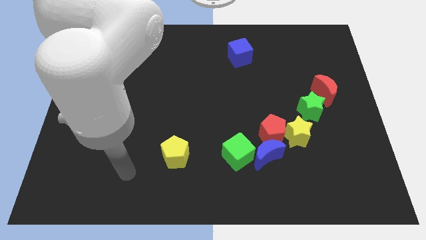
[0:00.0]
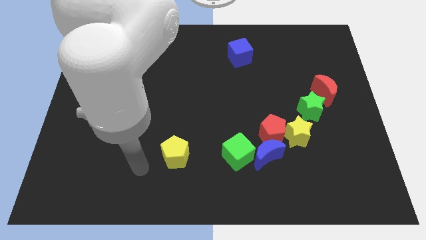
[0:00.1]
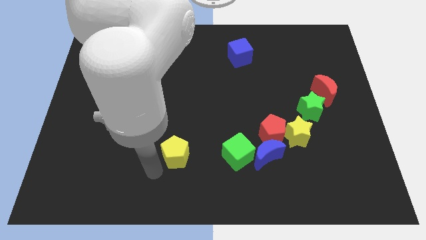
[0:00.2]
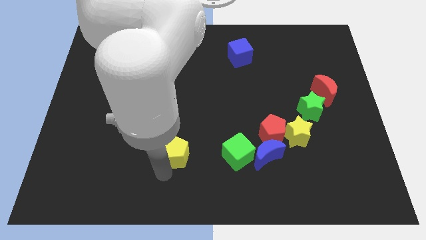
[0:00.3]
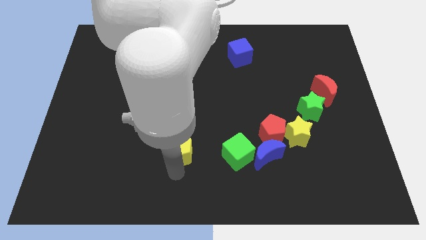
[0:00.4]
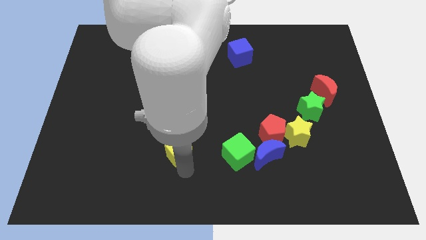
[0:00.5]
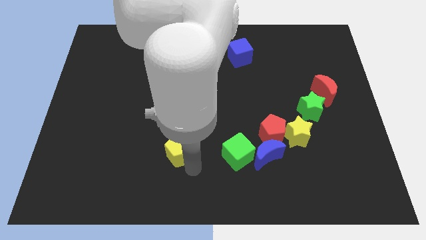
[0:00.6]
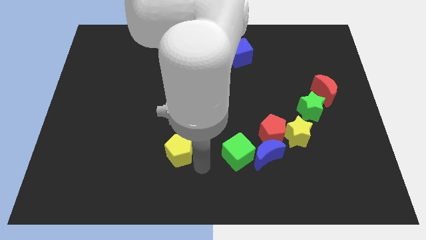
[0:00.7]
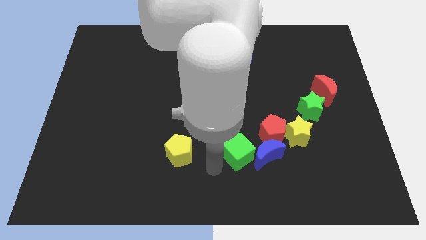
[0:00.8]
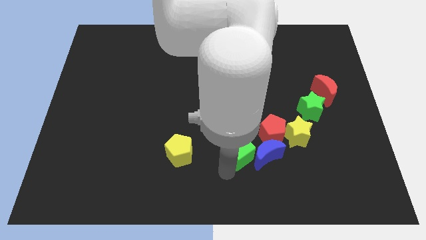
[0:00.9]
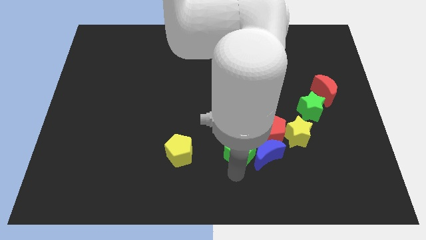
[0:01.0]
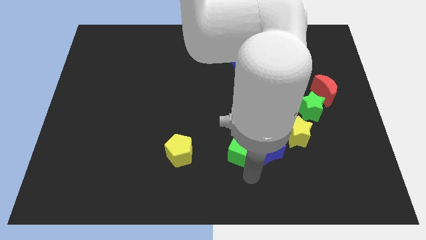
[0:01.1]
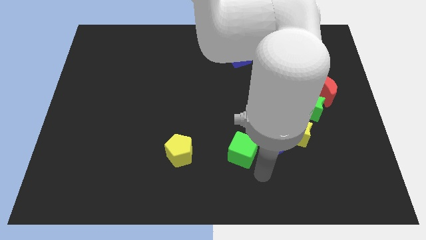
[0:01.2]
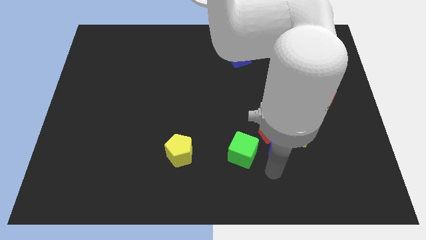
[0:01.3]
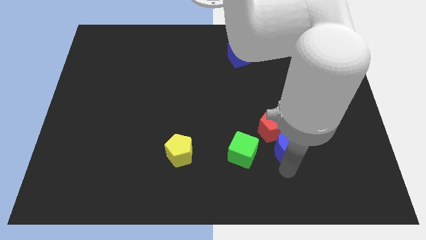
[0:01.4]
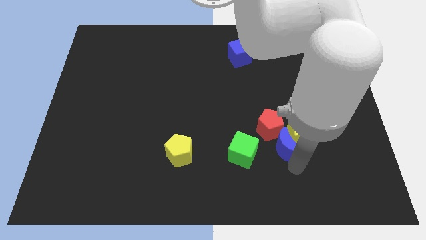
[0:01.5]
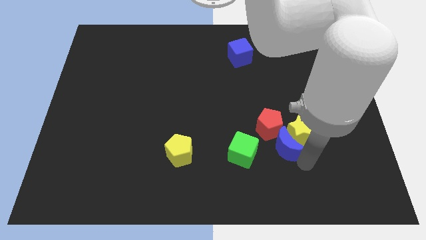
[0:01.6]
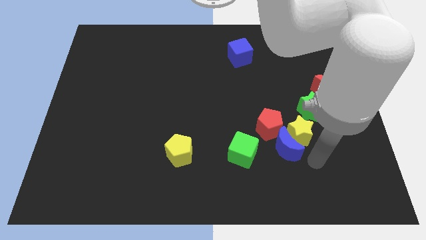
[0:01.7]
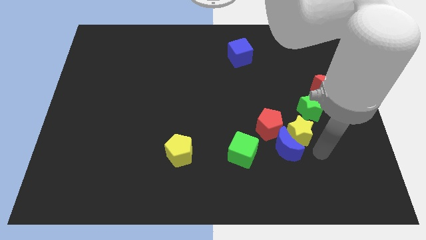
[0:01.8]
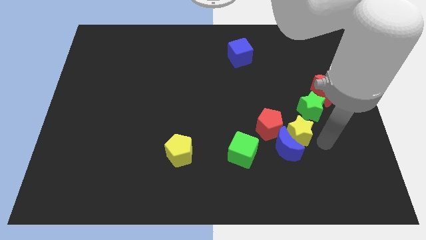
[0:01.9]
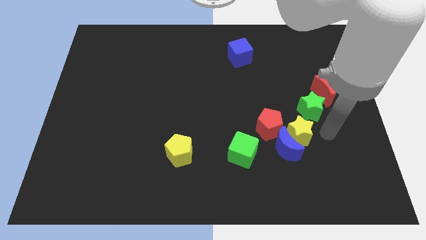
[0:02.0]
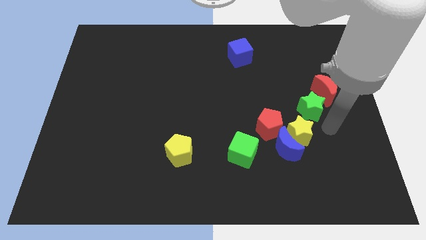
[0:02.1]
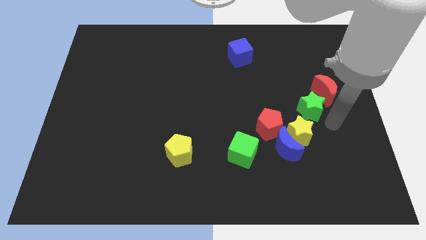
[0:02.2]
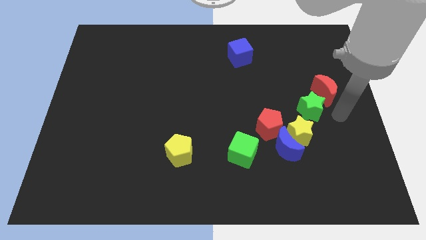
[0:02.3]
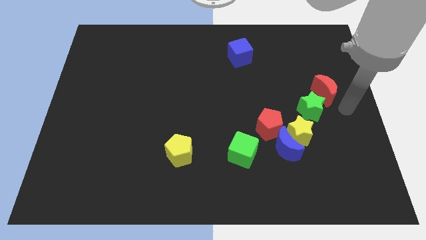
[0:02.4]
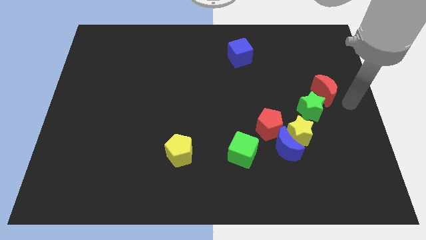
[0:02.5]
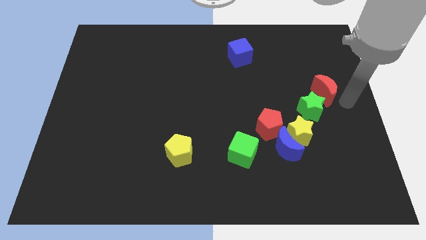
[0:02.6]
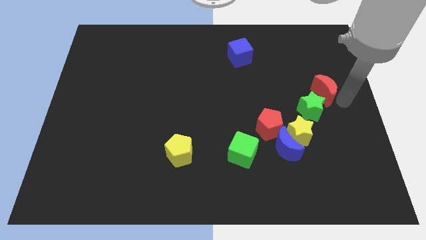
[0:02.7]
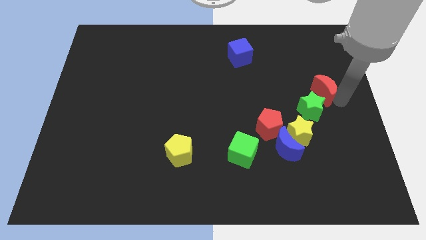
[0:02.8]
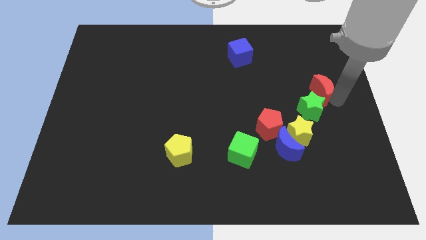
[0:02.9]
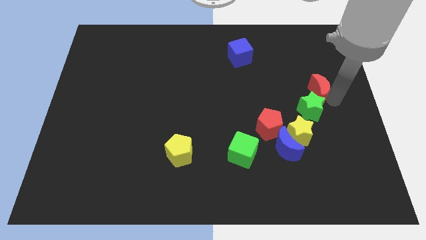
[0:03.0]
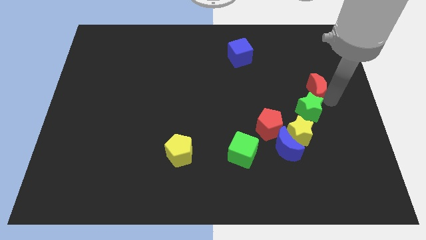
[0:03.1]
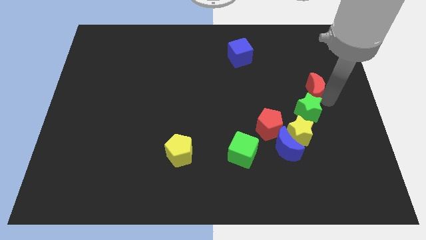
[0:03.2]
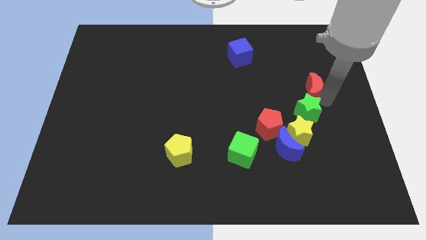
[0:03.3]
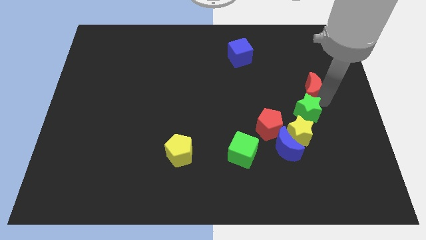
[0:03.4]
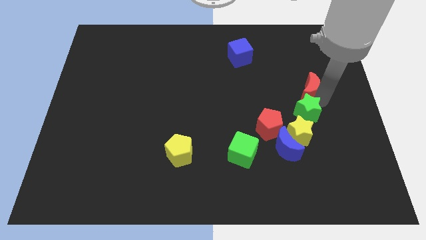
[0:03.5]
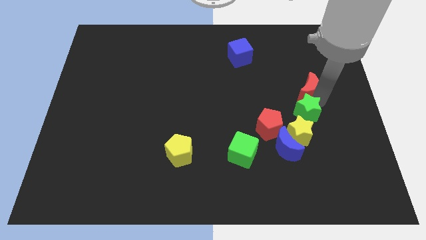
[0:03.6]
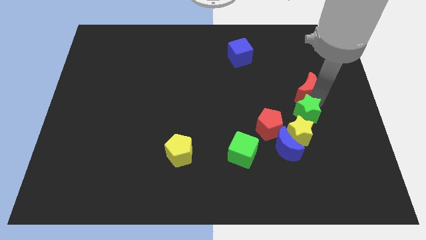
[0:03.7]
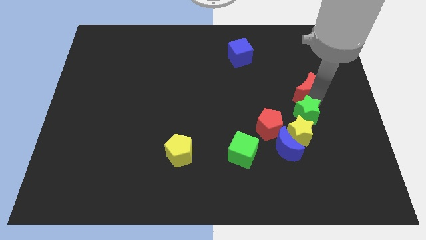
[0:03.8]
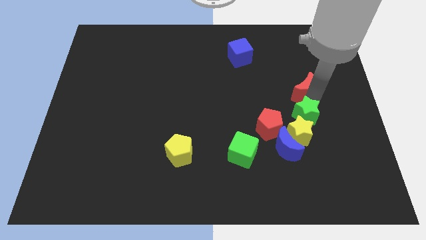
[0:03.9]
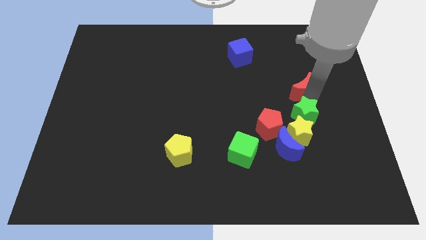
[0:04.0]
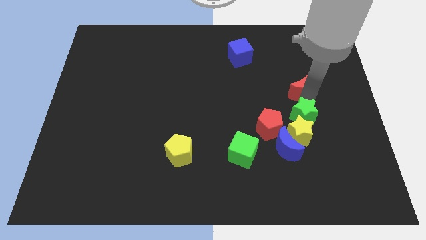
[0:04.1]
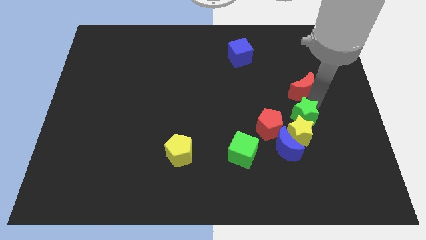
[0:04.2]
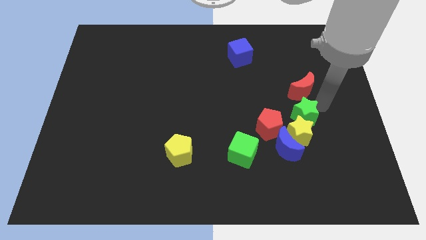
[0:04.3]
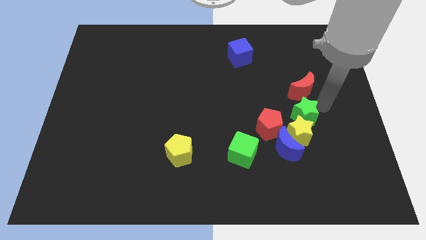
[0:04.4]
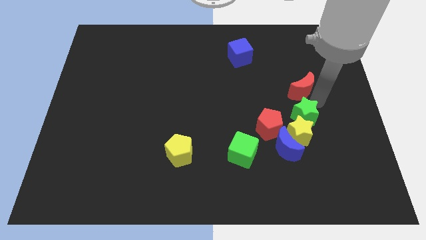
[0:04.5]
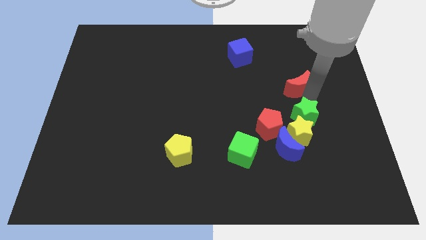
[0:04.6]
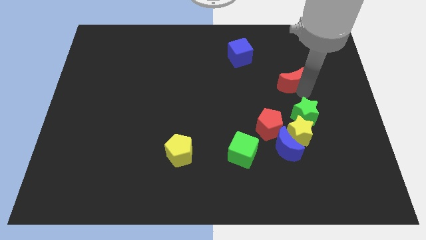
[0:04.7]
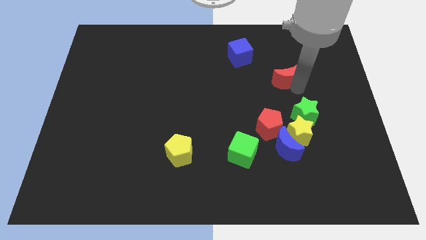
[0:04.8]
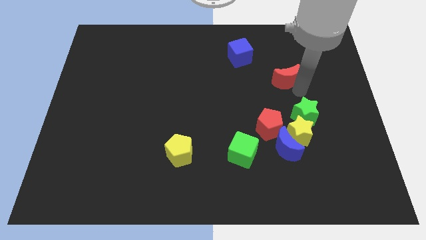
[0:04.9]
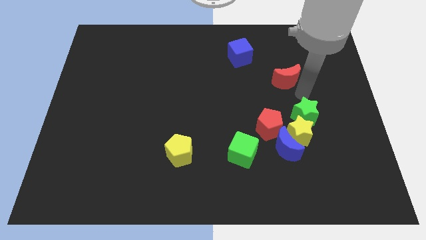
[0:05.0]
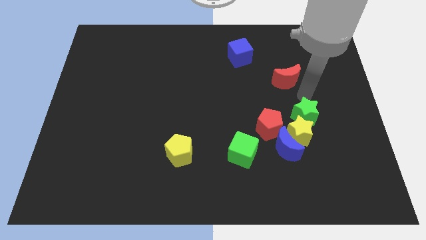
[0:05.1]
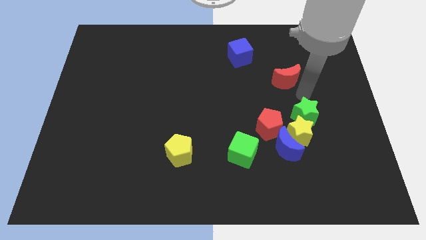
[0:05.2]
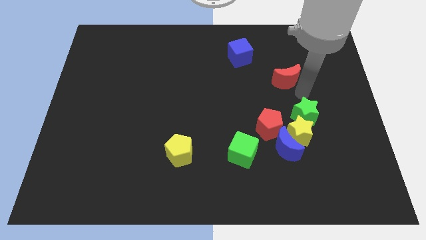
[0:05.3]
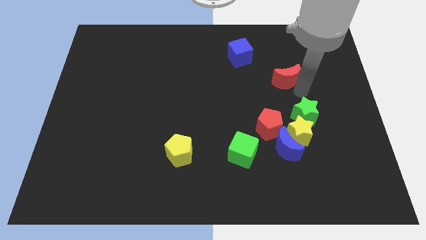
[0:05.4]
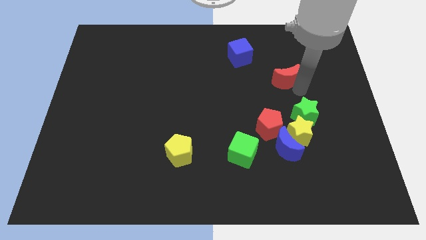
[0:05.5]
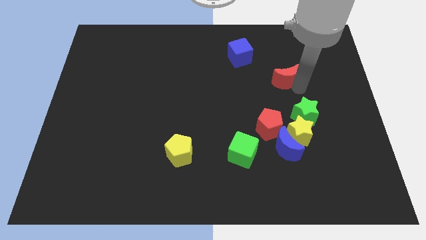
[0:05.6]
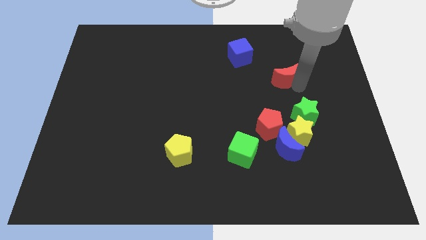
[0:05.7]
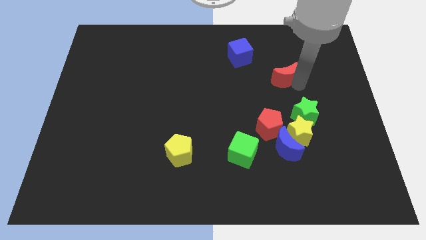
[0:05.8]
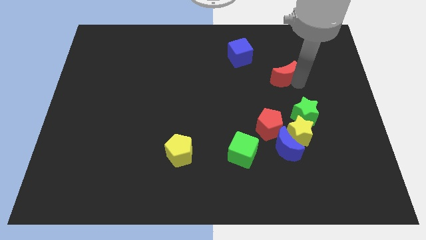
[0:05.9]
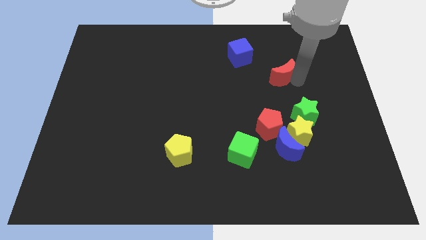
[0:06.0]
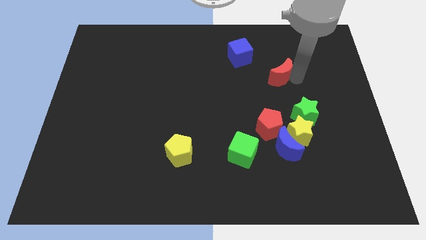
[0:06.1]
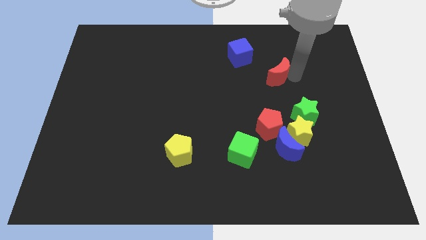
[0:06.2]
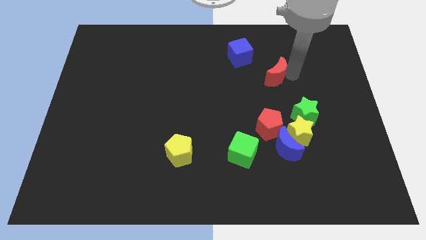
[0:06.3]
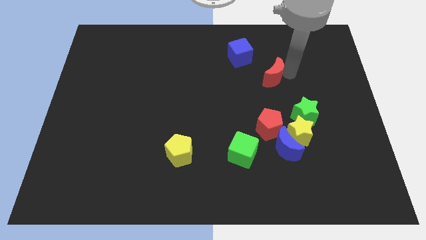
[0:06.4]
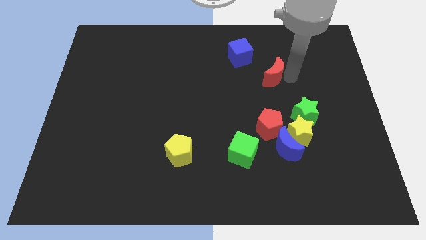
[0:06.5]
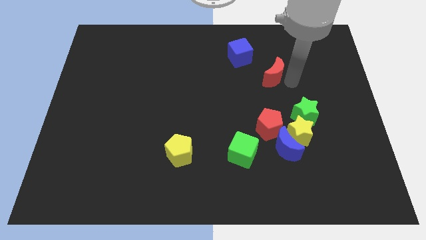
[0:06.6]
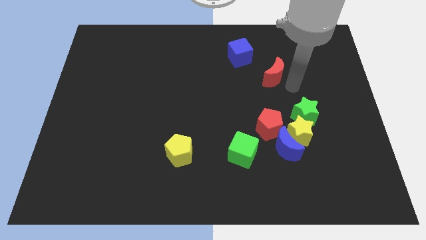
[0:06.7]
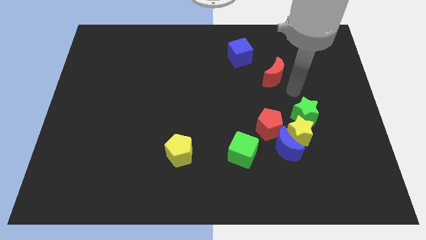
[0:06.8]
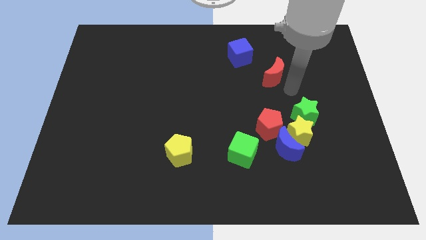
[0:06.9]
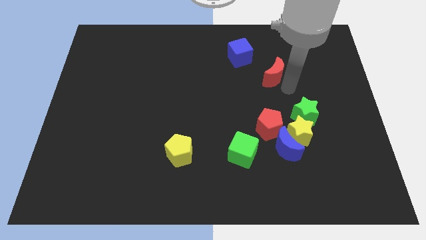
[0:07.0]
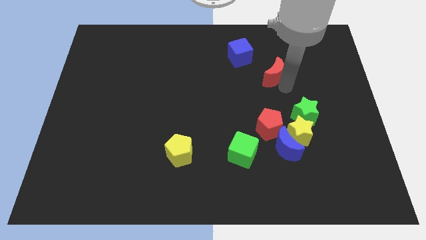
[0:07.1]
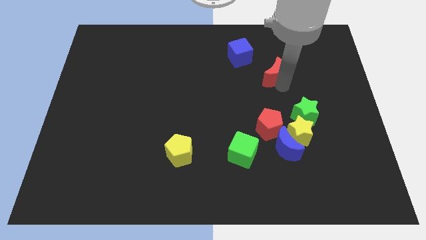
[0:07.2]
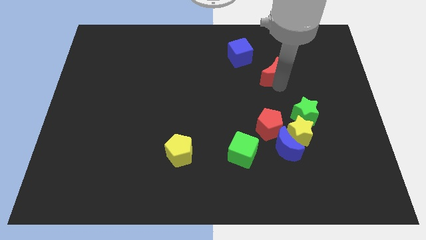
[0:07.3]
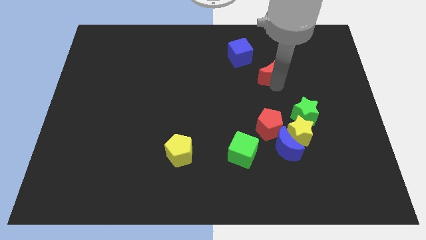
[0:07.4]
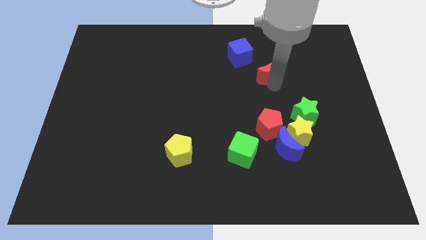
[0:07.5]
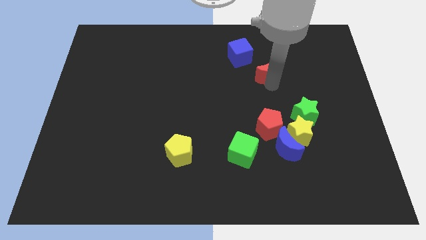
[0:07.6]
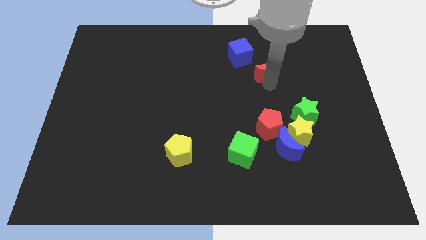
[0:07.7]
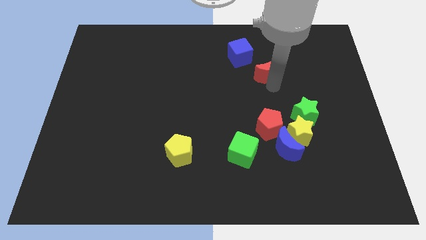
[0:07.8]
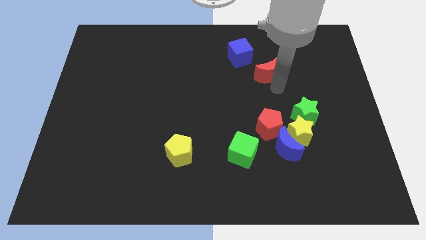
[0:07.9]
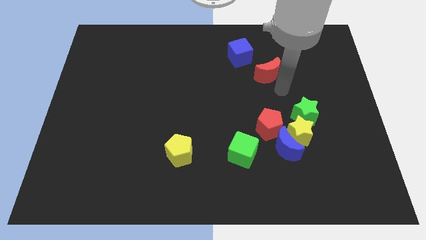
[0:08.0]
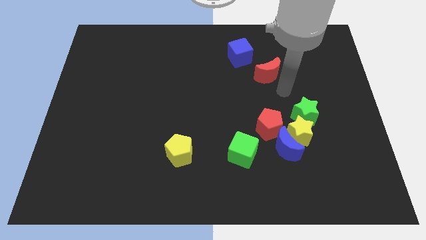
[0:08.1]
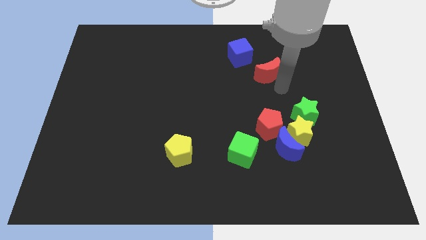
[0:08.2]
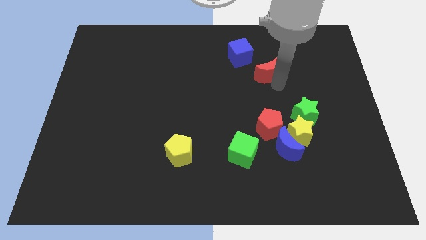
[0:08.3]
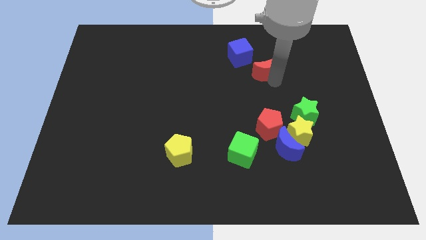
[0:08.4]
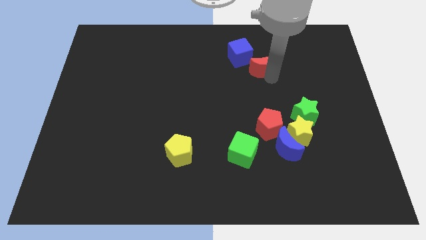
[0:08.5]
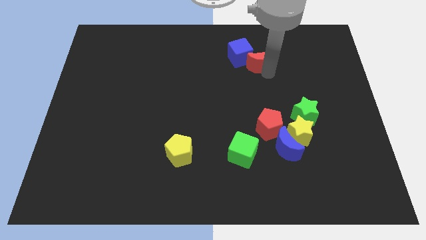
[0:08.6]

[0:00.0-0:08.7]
slide the red moon to the blue cube
